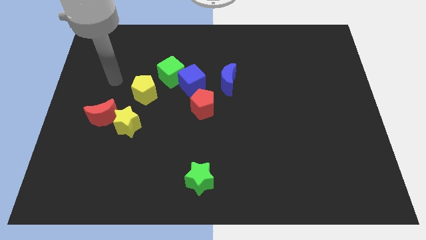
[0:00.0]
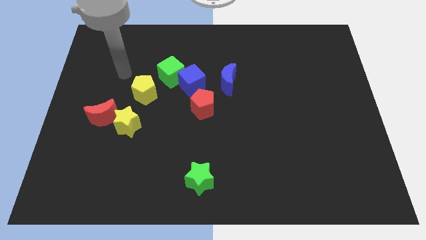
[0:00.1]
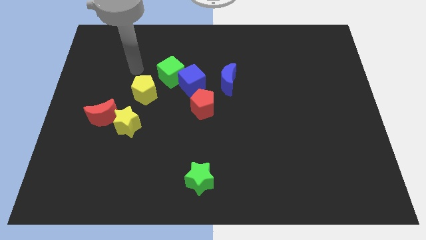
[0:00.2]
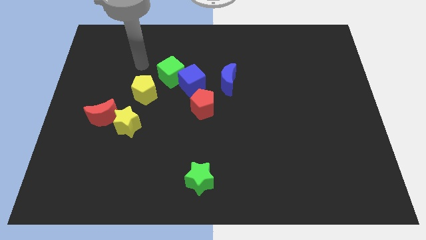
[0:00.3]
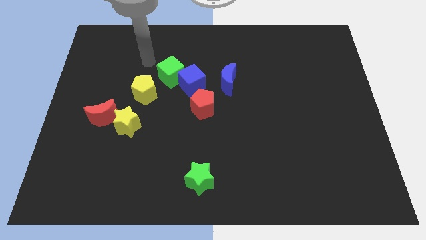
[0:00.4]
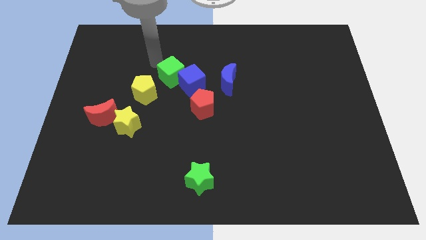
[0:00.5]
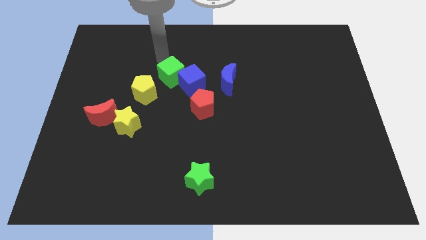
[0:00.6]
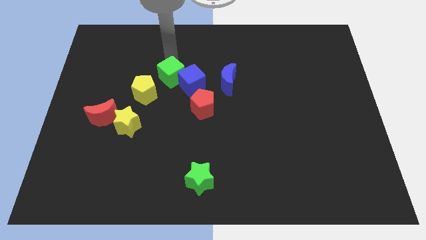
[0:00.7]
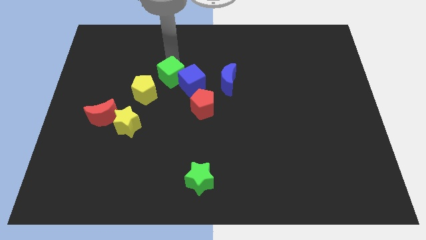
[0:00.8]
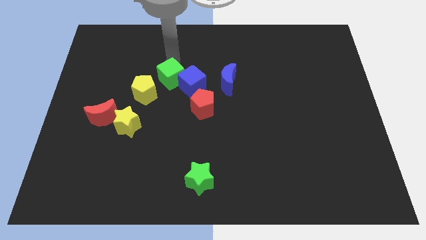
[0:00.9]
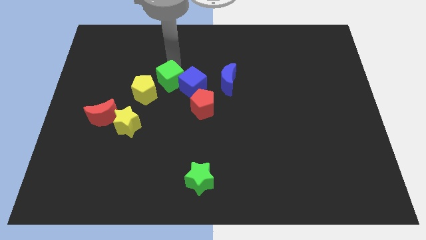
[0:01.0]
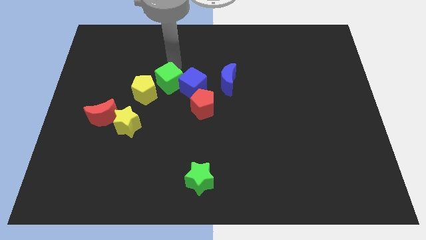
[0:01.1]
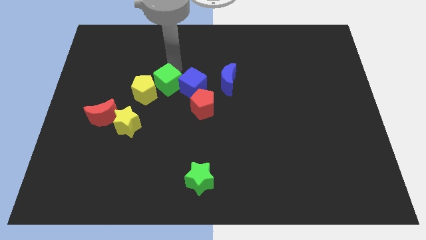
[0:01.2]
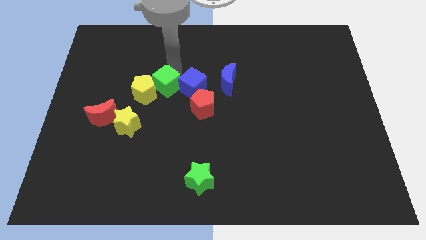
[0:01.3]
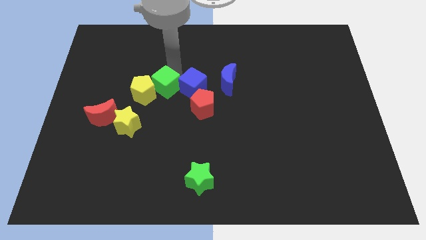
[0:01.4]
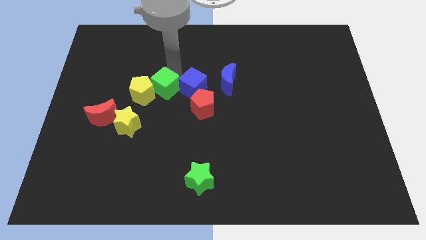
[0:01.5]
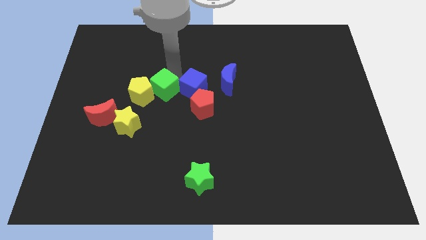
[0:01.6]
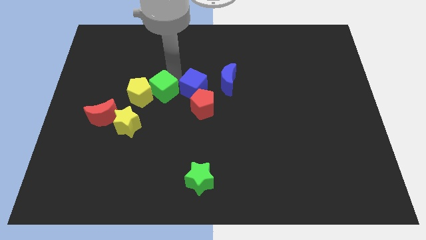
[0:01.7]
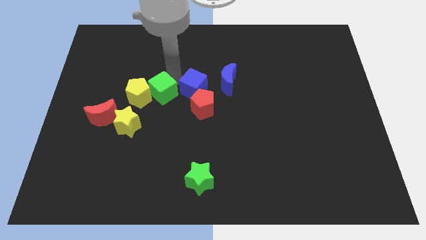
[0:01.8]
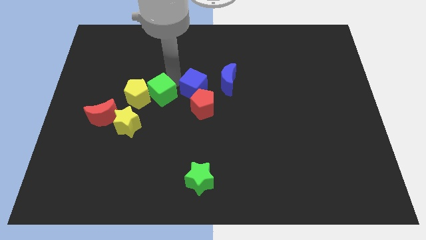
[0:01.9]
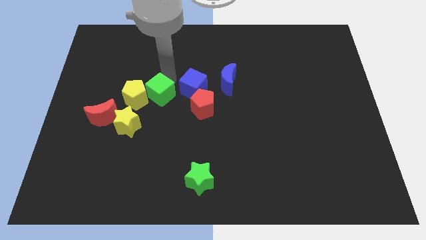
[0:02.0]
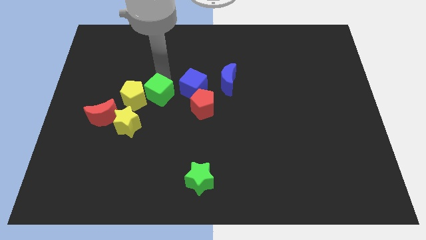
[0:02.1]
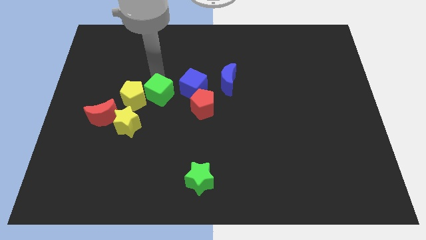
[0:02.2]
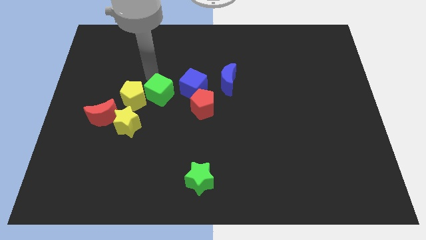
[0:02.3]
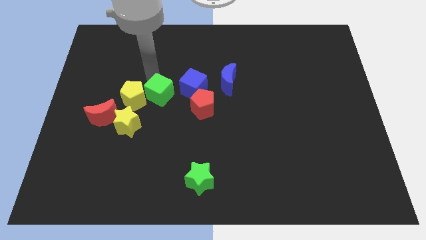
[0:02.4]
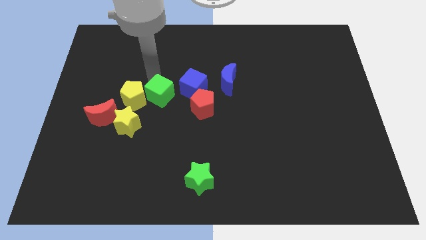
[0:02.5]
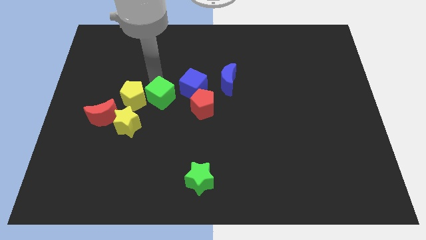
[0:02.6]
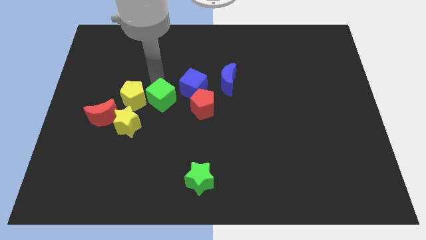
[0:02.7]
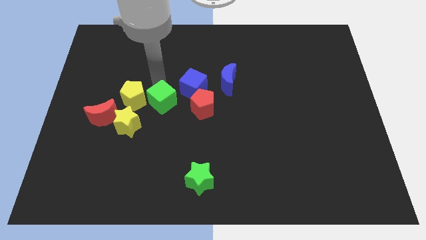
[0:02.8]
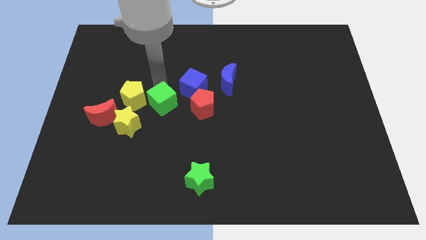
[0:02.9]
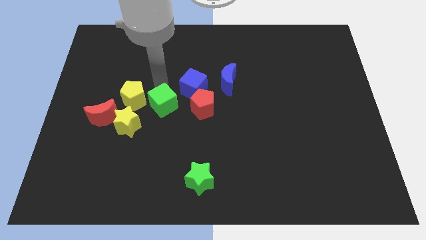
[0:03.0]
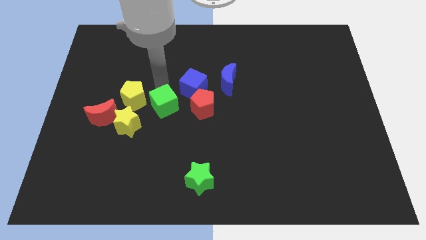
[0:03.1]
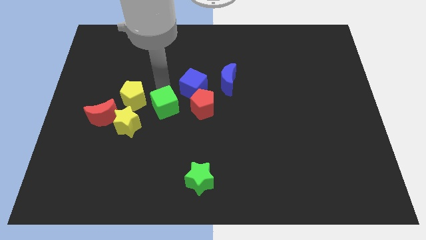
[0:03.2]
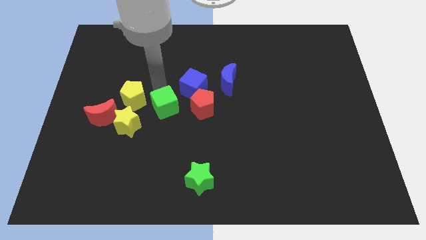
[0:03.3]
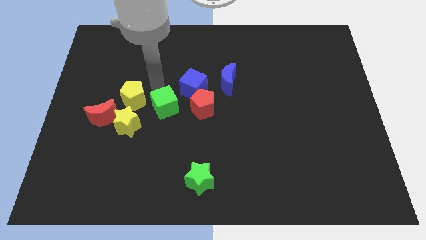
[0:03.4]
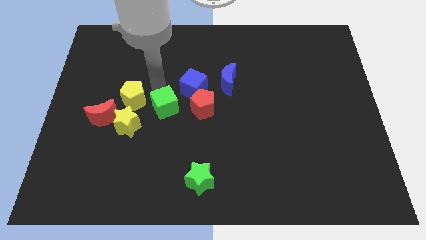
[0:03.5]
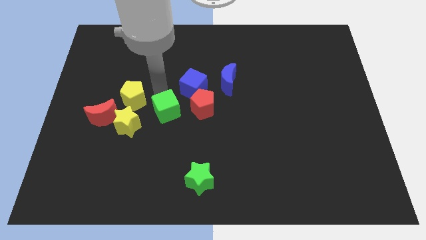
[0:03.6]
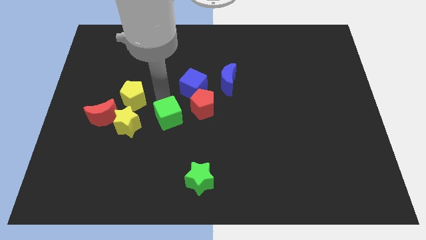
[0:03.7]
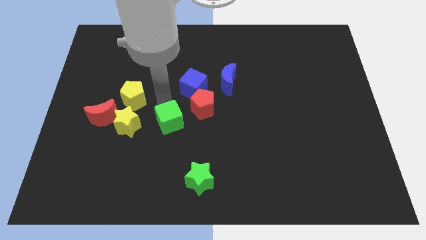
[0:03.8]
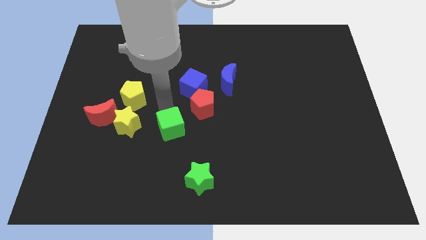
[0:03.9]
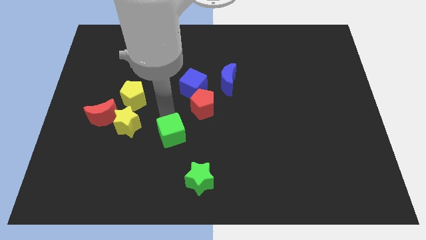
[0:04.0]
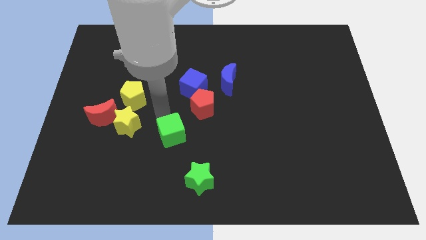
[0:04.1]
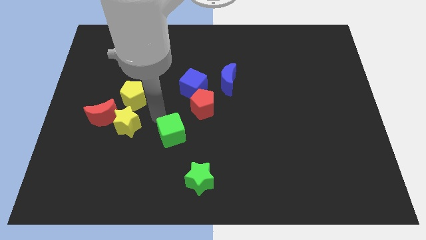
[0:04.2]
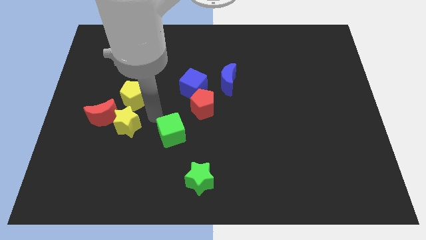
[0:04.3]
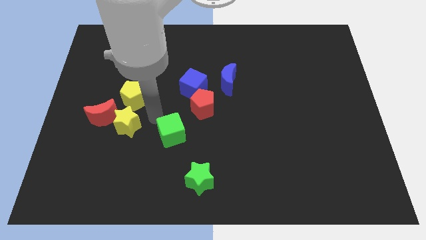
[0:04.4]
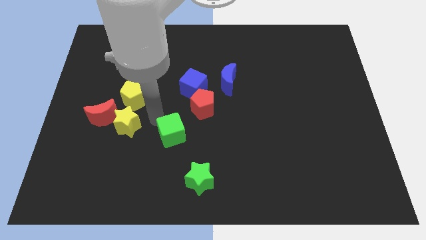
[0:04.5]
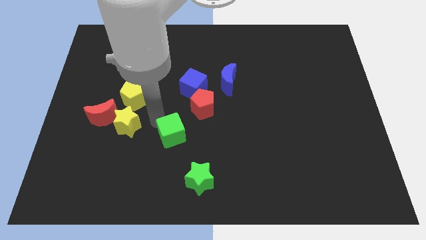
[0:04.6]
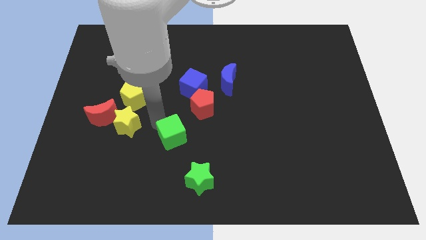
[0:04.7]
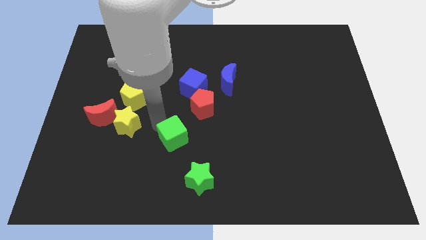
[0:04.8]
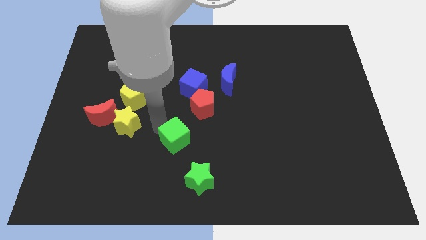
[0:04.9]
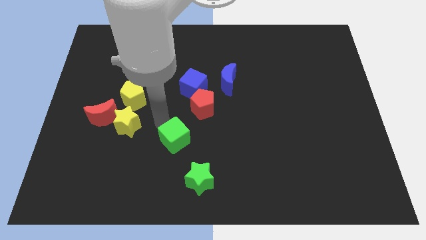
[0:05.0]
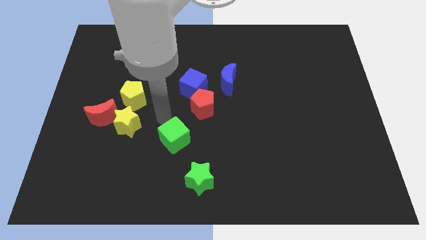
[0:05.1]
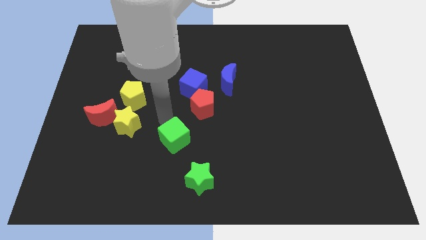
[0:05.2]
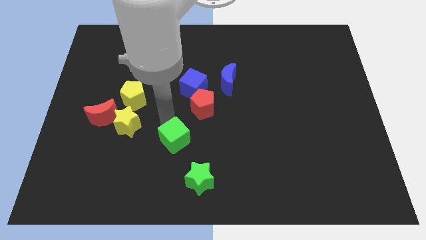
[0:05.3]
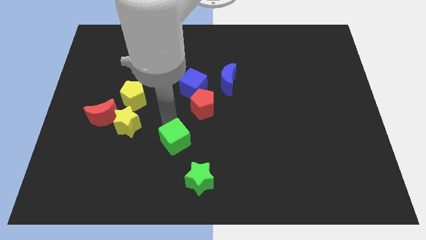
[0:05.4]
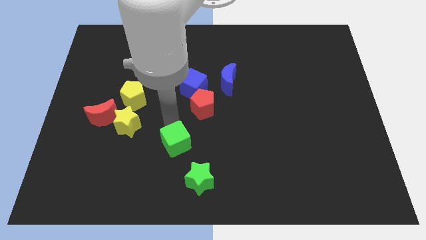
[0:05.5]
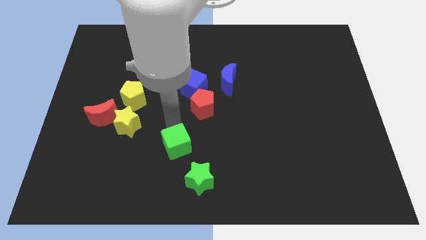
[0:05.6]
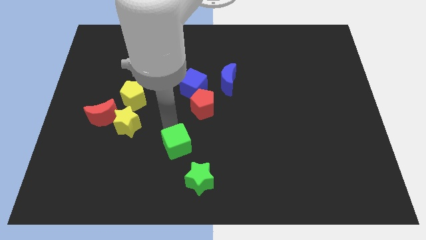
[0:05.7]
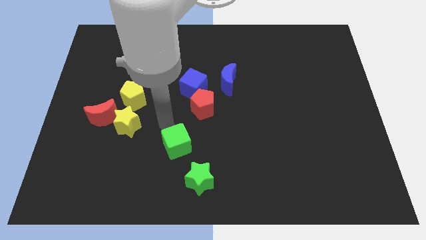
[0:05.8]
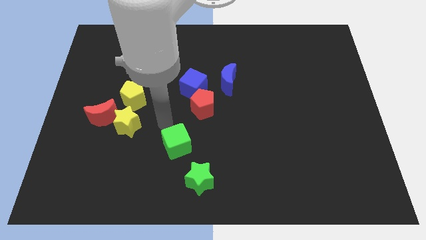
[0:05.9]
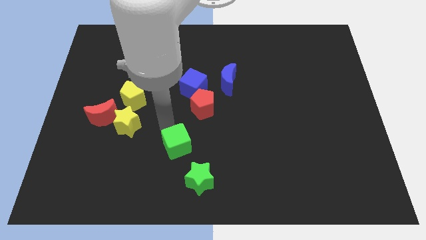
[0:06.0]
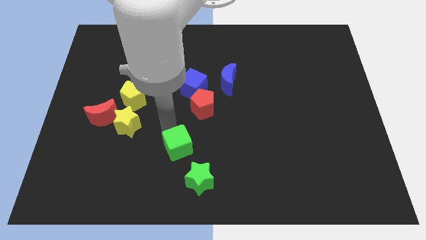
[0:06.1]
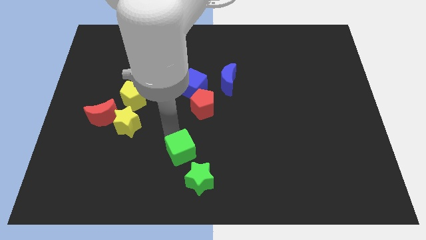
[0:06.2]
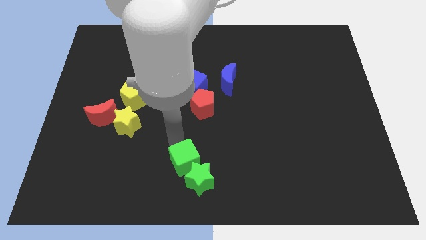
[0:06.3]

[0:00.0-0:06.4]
push the green cube close to the green star

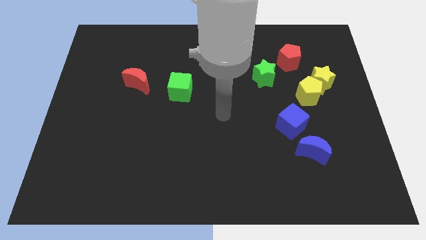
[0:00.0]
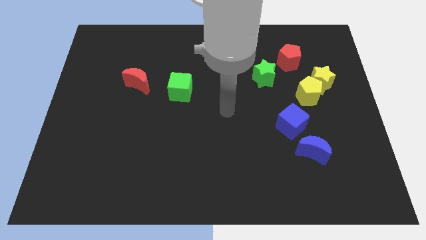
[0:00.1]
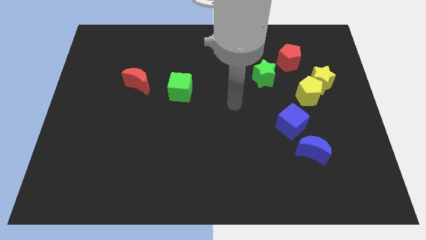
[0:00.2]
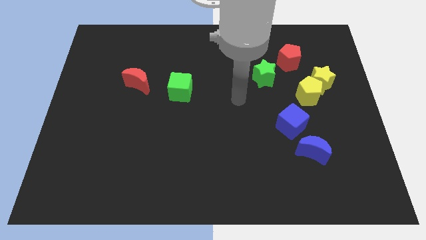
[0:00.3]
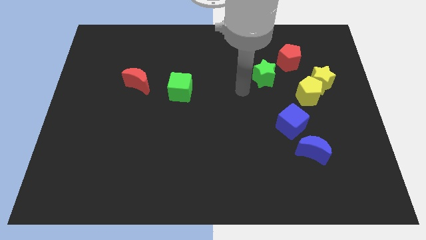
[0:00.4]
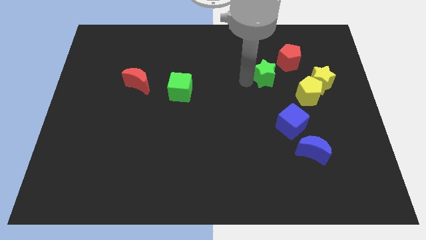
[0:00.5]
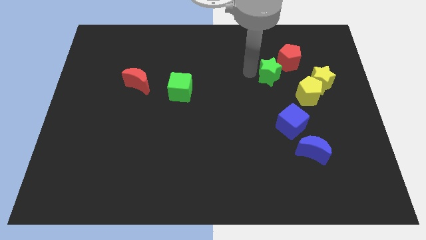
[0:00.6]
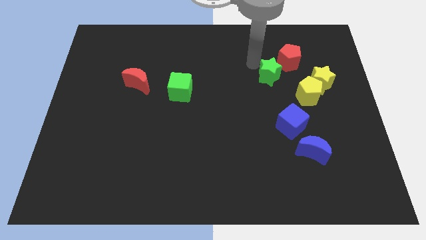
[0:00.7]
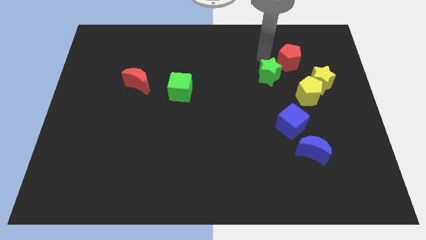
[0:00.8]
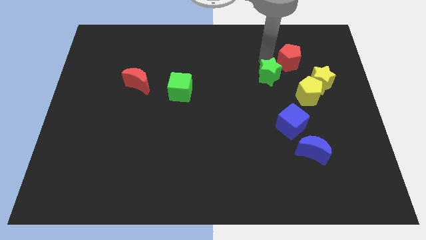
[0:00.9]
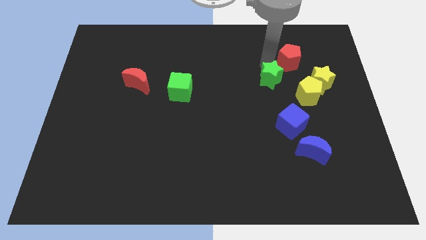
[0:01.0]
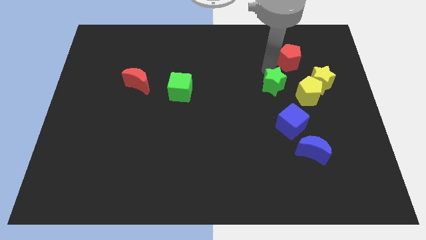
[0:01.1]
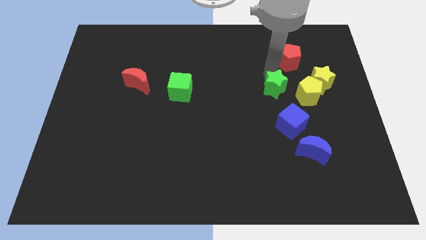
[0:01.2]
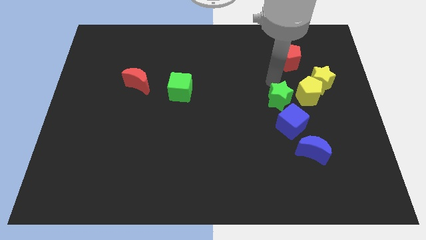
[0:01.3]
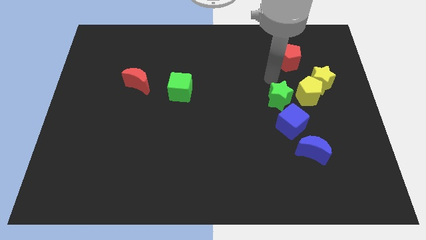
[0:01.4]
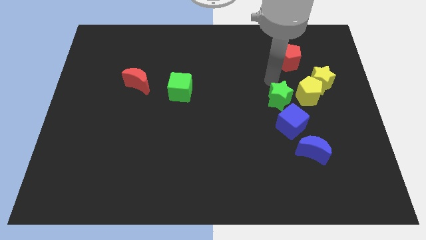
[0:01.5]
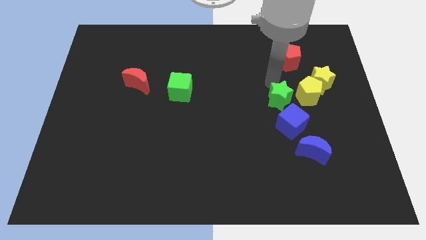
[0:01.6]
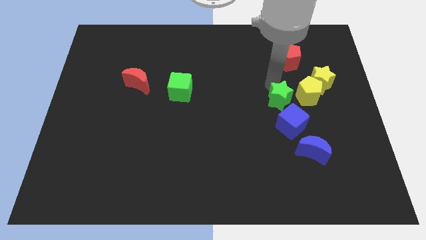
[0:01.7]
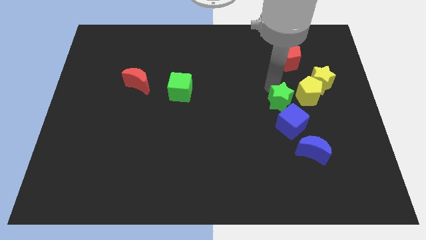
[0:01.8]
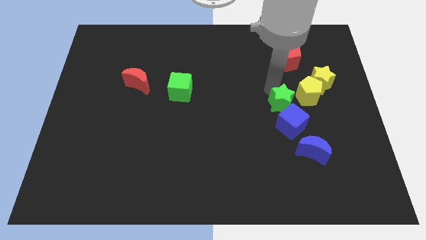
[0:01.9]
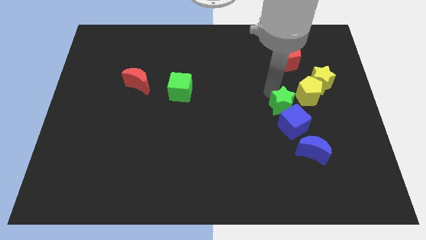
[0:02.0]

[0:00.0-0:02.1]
push the green star to the blue cube
